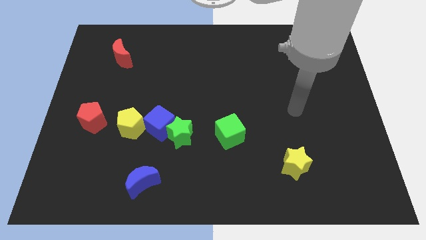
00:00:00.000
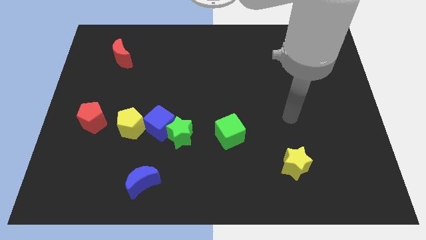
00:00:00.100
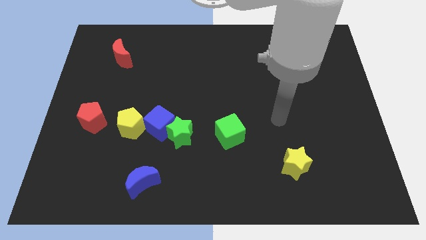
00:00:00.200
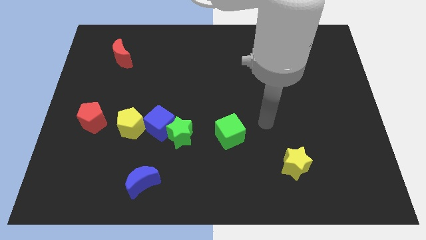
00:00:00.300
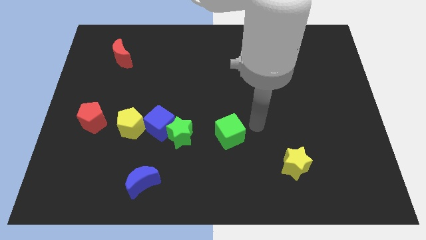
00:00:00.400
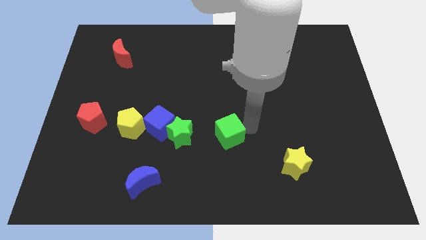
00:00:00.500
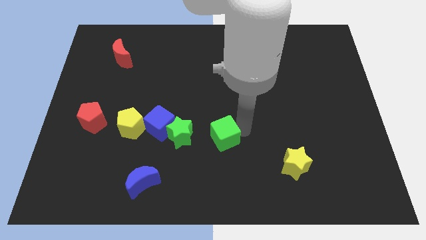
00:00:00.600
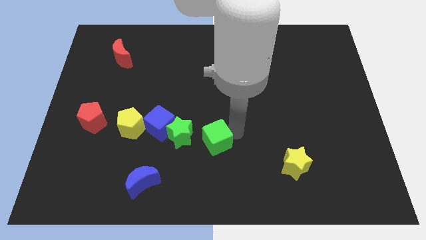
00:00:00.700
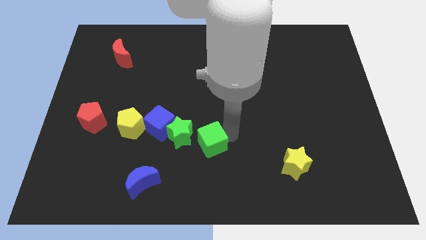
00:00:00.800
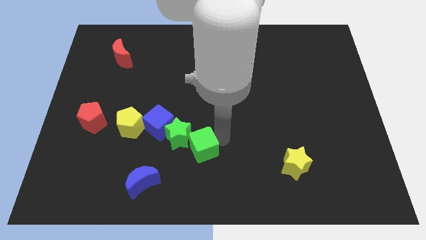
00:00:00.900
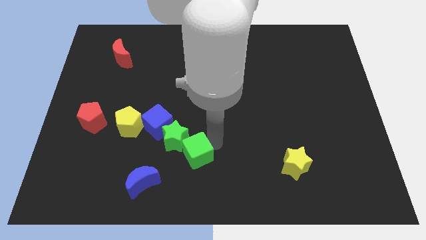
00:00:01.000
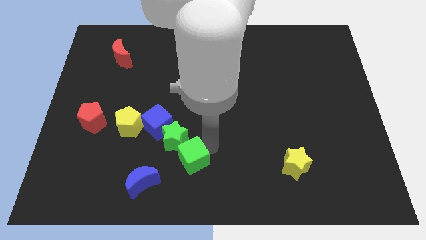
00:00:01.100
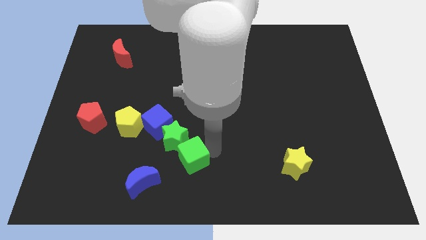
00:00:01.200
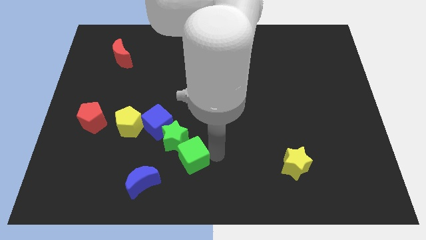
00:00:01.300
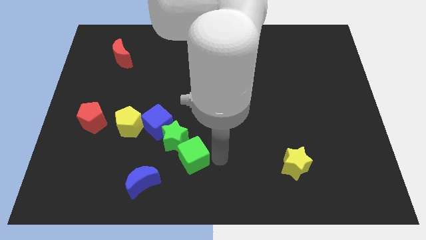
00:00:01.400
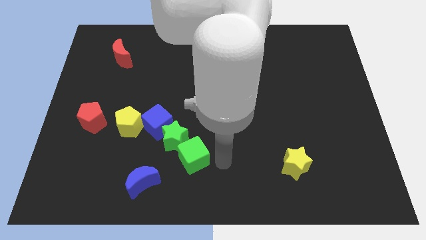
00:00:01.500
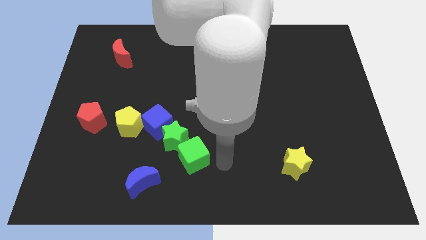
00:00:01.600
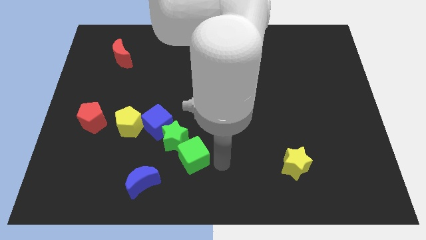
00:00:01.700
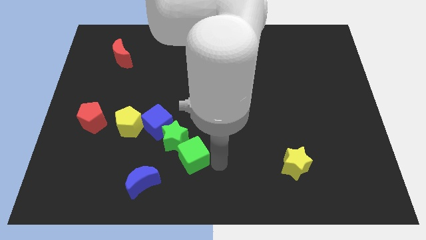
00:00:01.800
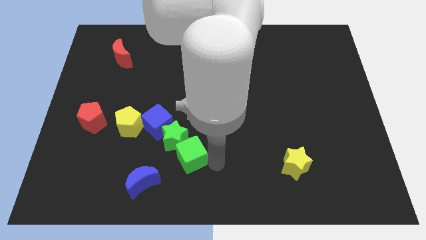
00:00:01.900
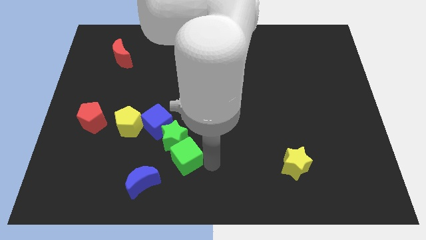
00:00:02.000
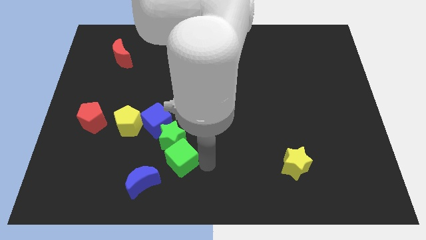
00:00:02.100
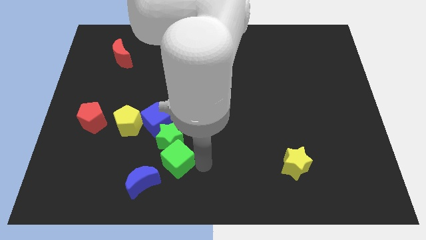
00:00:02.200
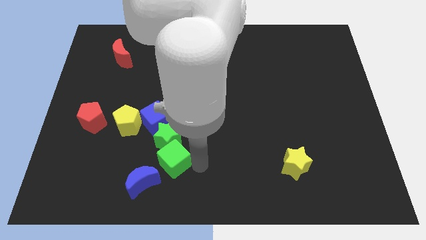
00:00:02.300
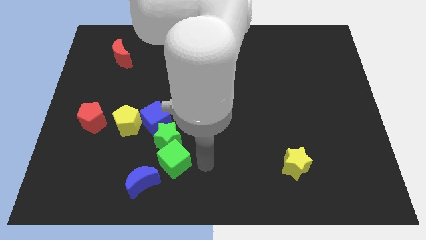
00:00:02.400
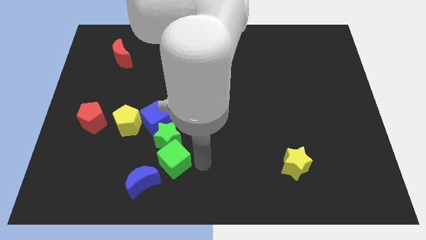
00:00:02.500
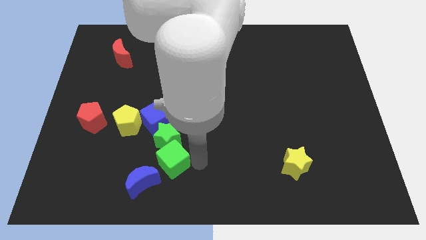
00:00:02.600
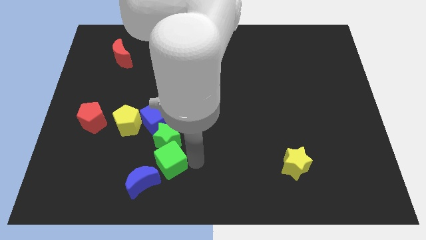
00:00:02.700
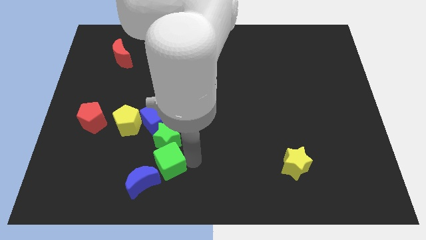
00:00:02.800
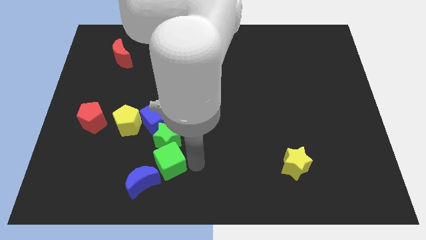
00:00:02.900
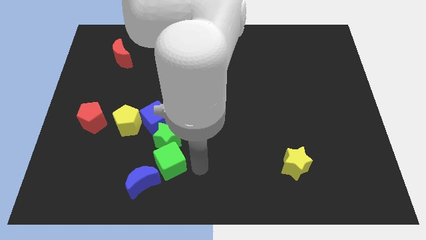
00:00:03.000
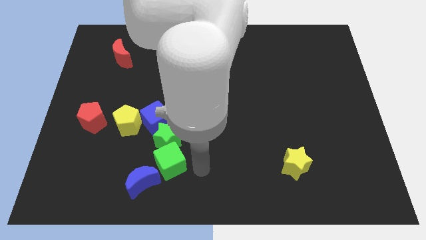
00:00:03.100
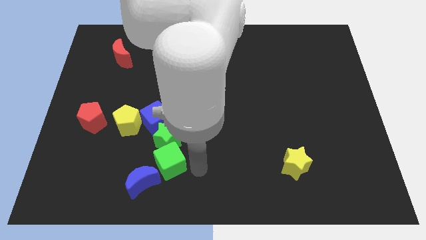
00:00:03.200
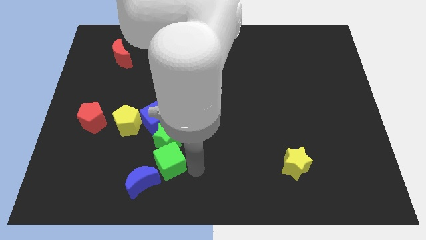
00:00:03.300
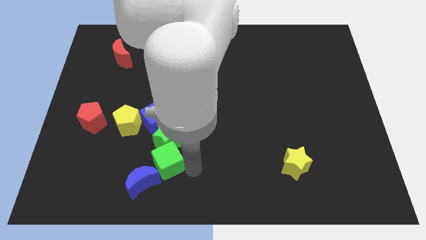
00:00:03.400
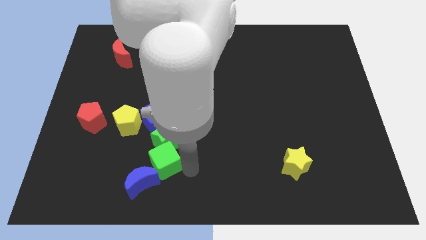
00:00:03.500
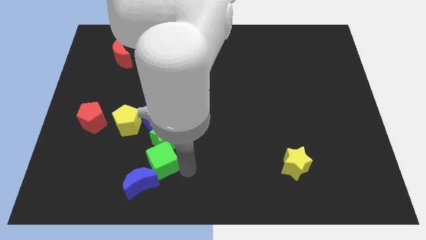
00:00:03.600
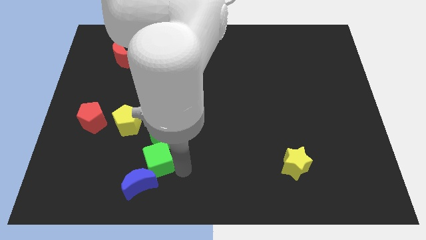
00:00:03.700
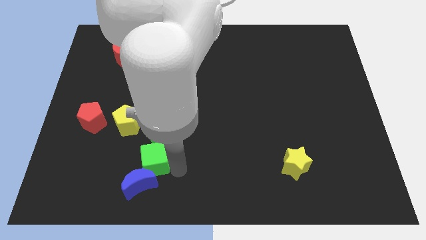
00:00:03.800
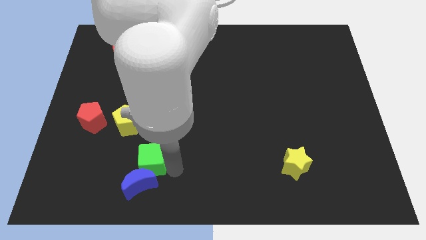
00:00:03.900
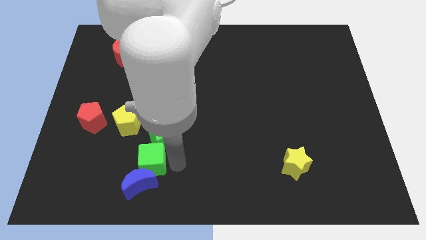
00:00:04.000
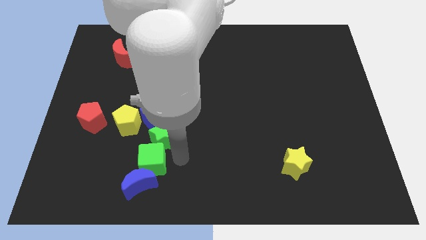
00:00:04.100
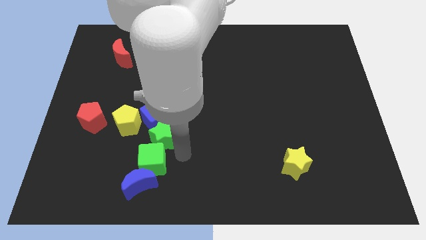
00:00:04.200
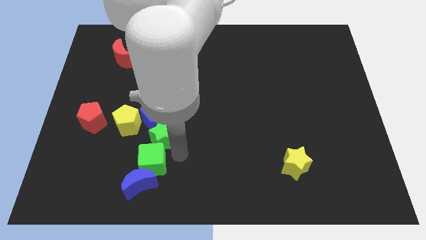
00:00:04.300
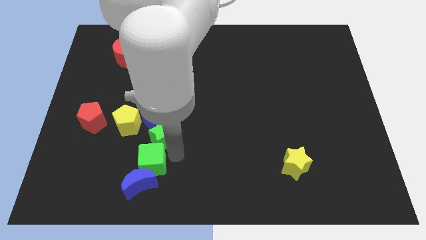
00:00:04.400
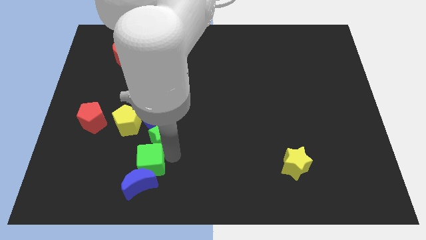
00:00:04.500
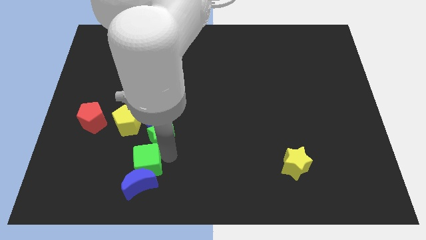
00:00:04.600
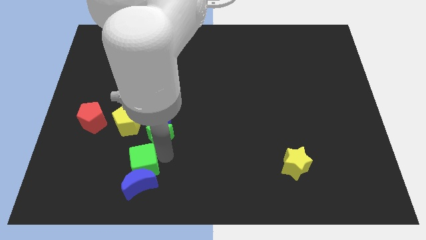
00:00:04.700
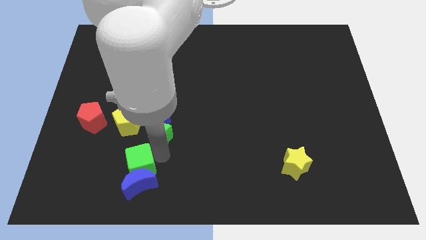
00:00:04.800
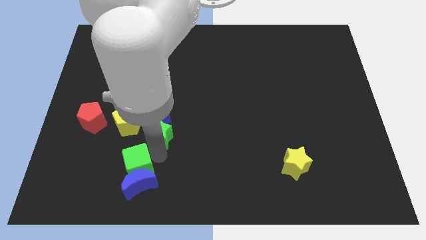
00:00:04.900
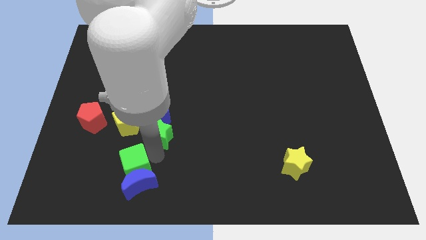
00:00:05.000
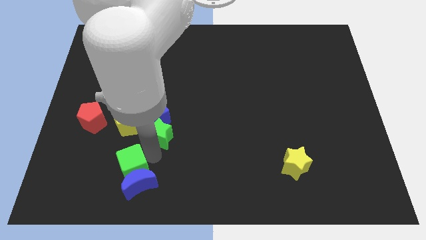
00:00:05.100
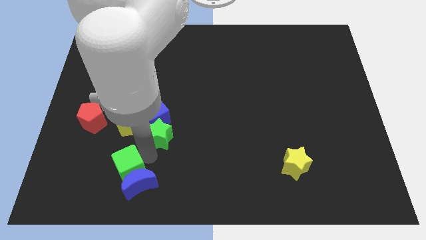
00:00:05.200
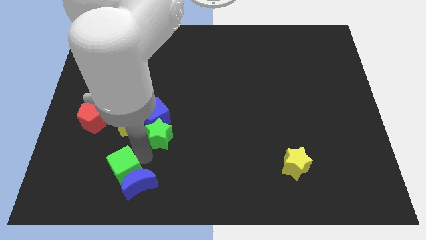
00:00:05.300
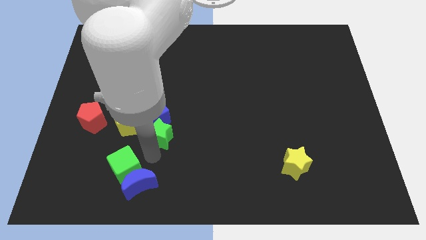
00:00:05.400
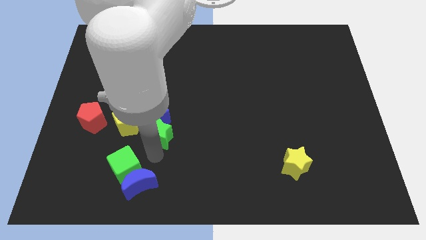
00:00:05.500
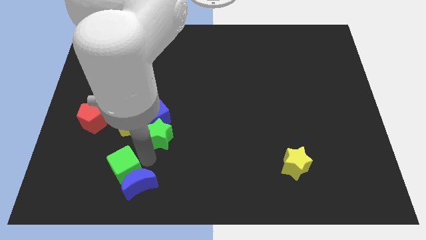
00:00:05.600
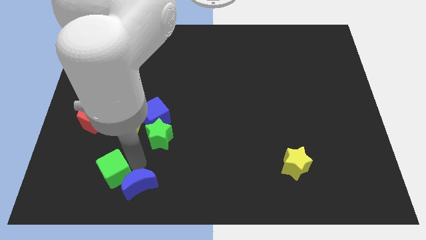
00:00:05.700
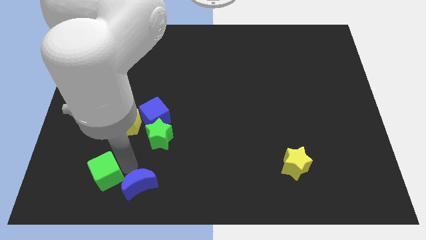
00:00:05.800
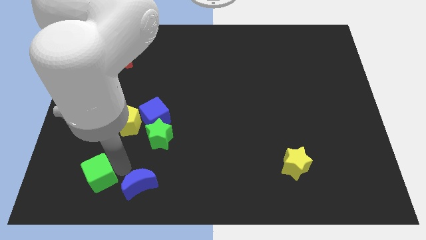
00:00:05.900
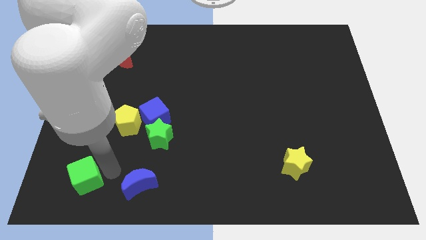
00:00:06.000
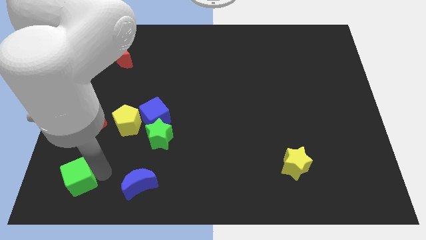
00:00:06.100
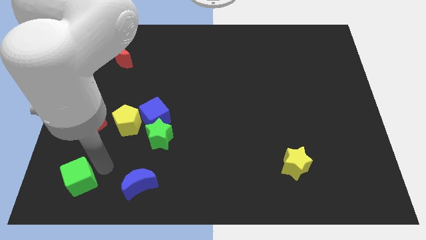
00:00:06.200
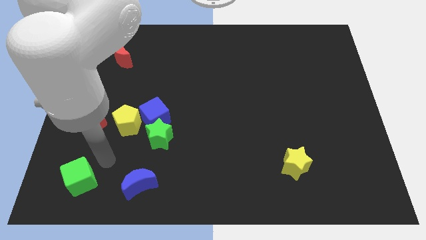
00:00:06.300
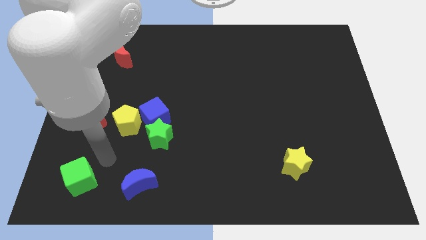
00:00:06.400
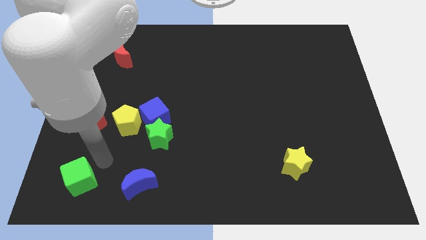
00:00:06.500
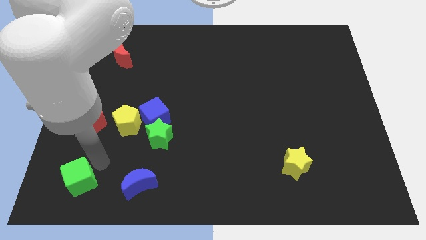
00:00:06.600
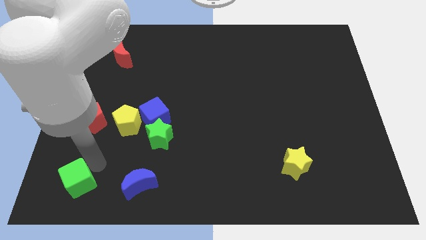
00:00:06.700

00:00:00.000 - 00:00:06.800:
put the green cube to the bottom left corner
